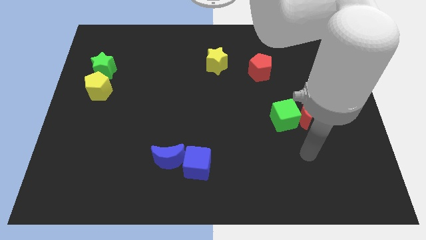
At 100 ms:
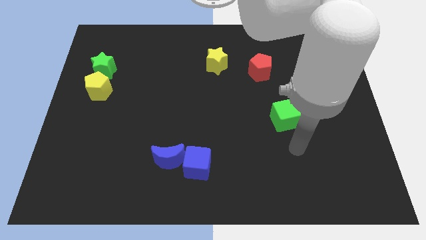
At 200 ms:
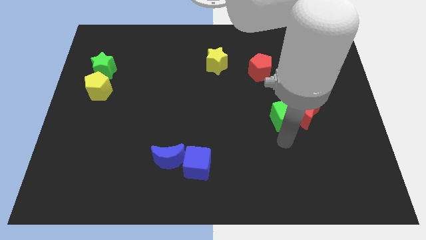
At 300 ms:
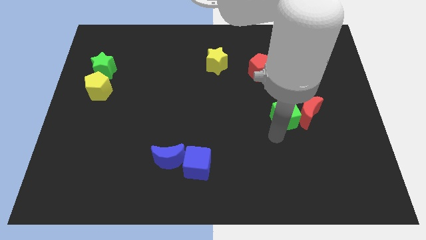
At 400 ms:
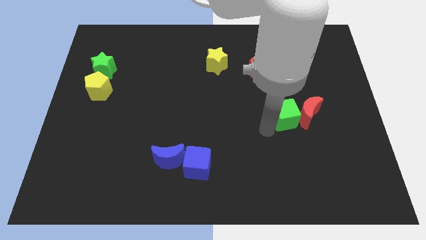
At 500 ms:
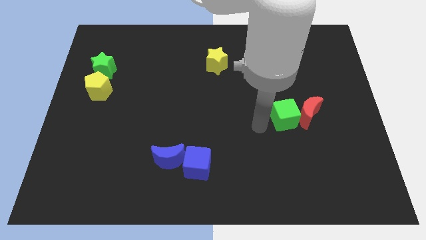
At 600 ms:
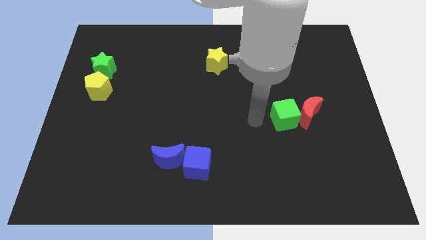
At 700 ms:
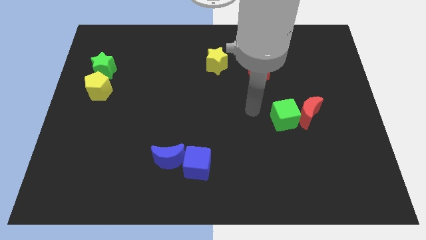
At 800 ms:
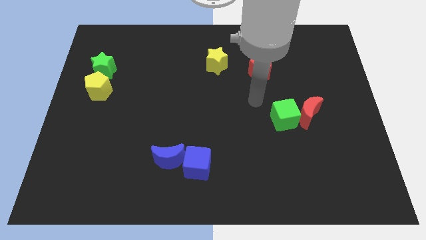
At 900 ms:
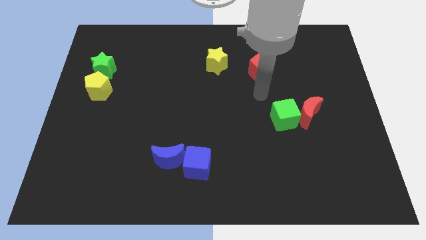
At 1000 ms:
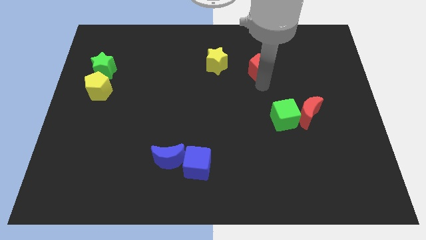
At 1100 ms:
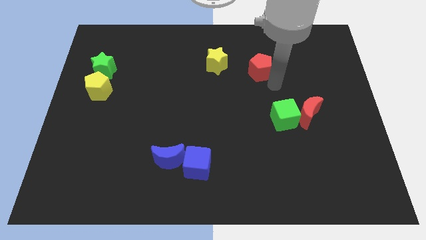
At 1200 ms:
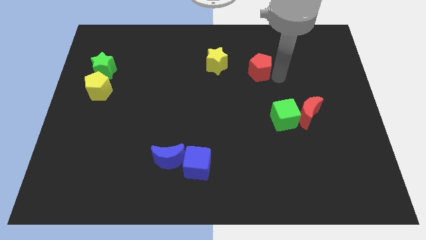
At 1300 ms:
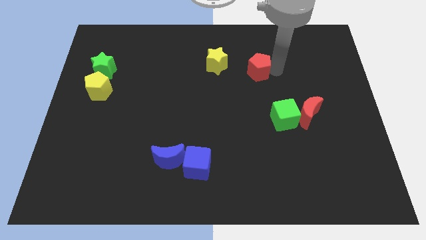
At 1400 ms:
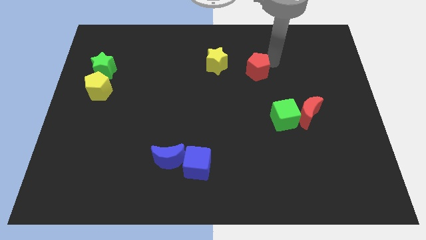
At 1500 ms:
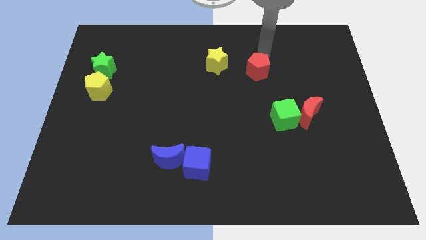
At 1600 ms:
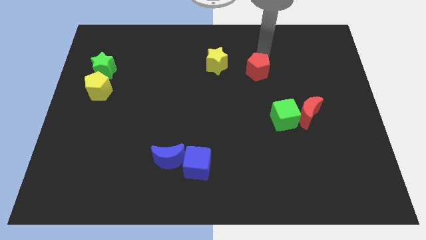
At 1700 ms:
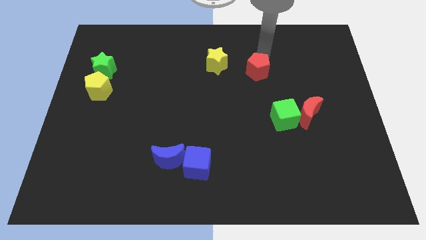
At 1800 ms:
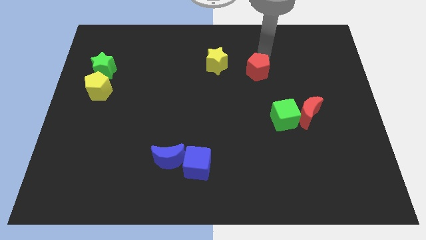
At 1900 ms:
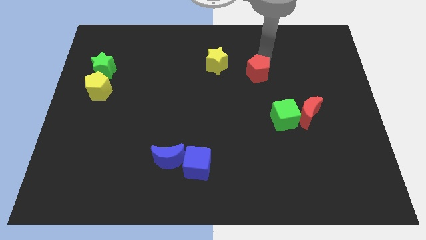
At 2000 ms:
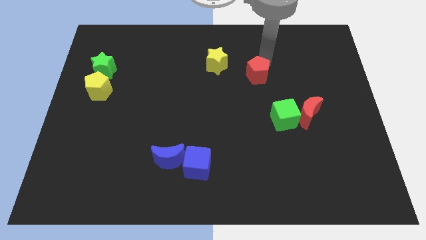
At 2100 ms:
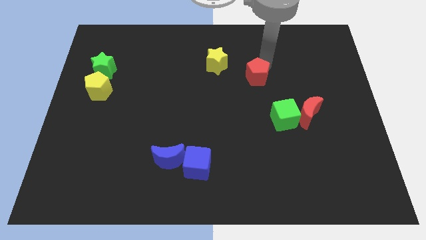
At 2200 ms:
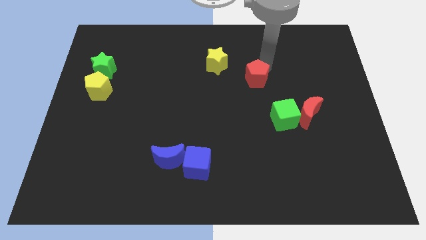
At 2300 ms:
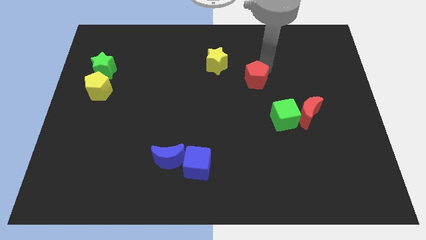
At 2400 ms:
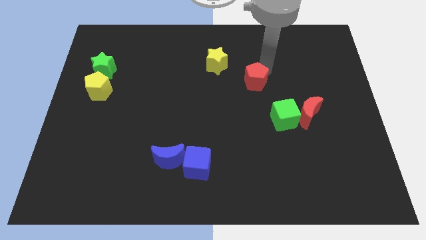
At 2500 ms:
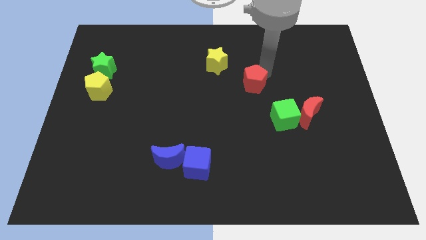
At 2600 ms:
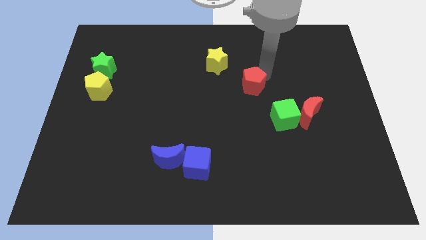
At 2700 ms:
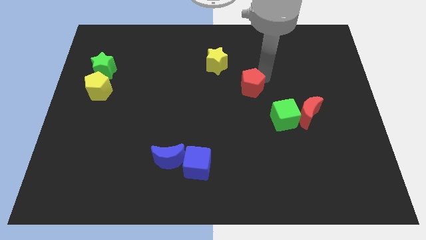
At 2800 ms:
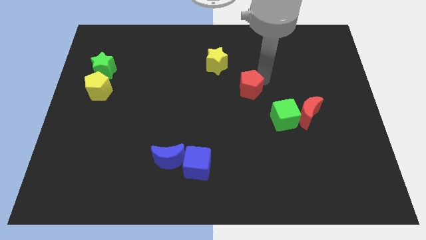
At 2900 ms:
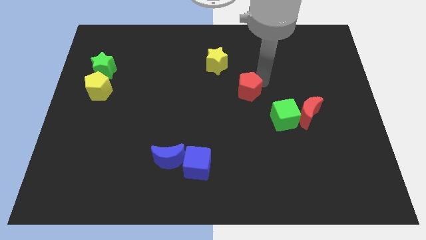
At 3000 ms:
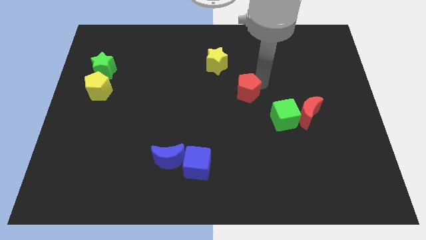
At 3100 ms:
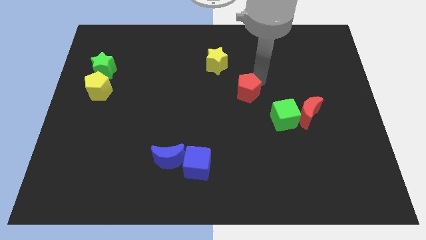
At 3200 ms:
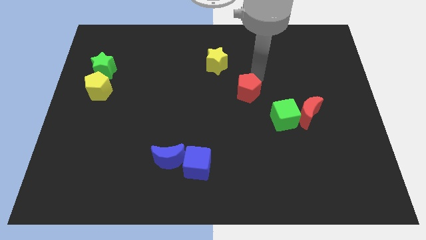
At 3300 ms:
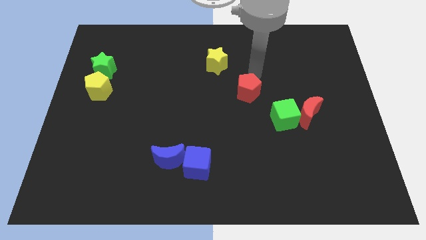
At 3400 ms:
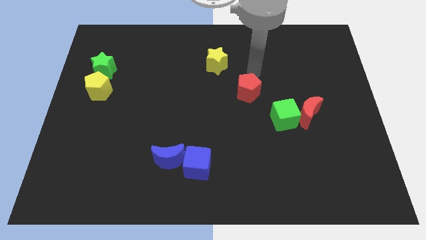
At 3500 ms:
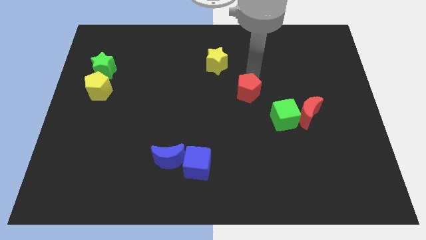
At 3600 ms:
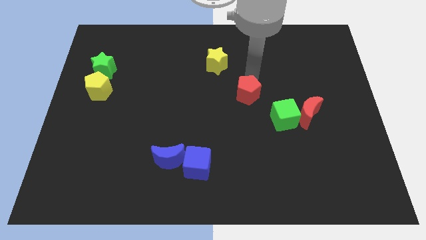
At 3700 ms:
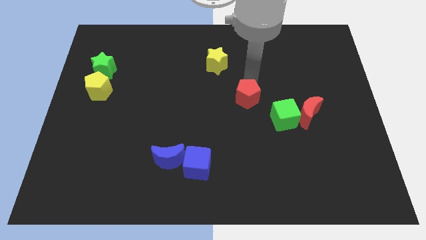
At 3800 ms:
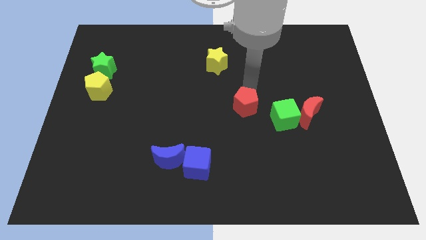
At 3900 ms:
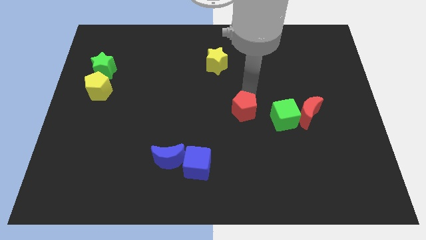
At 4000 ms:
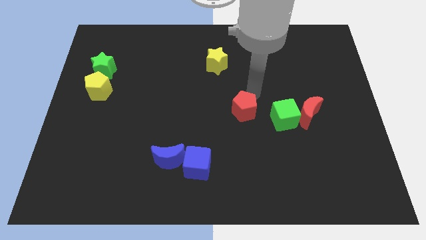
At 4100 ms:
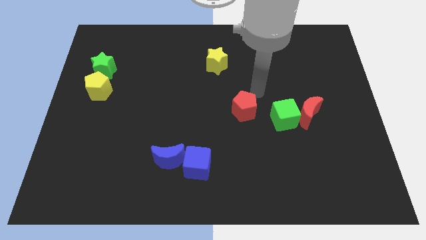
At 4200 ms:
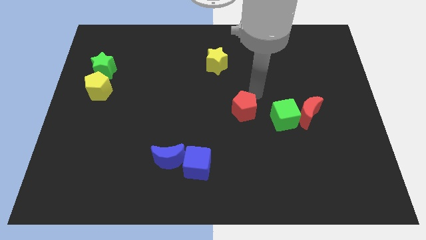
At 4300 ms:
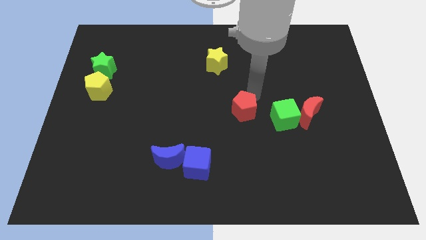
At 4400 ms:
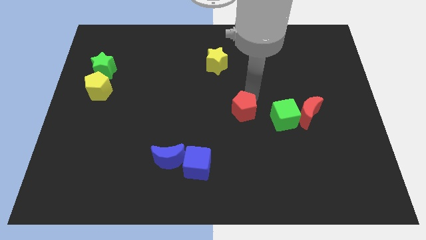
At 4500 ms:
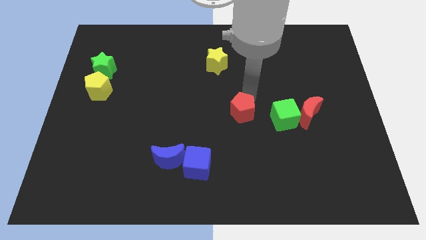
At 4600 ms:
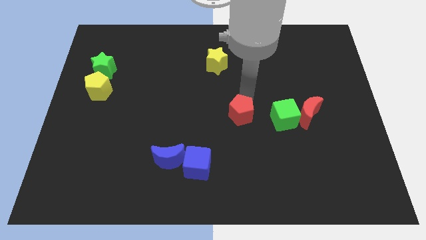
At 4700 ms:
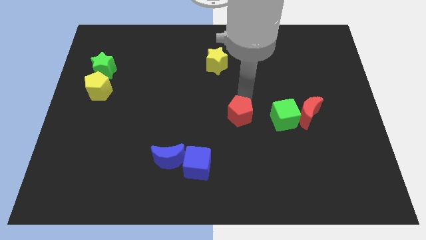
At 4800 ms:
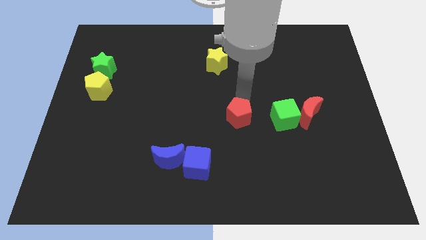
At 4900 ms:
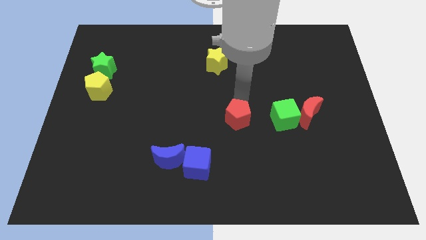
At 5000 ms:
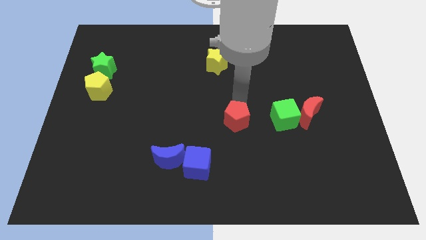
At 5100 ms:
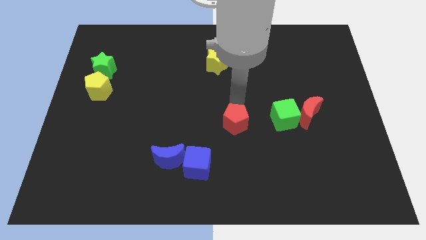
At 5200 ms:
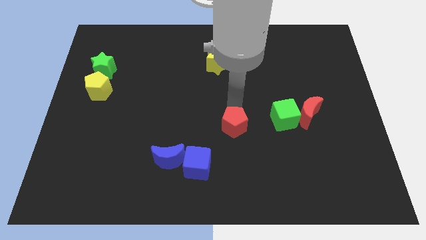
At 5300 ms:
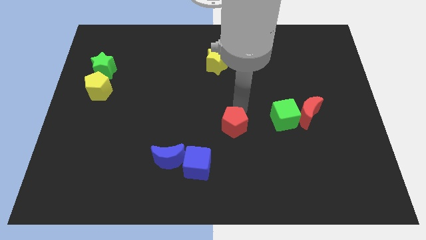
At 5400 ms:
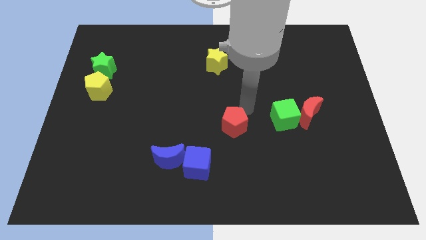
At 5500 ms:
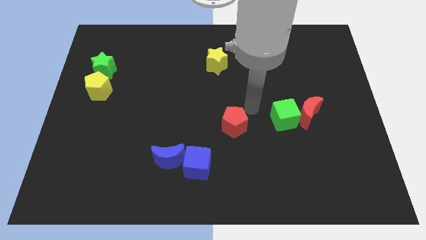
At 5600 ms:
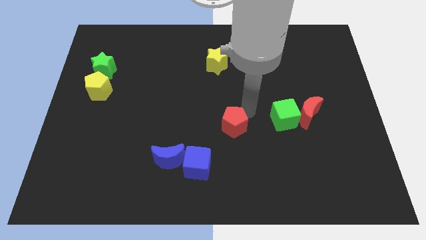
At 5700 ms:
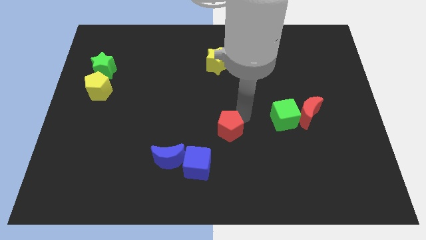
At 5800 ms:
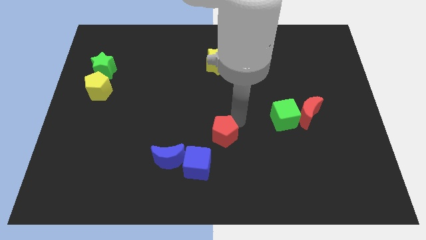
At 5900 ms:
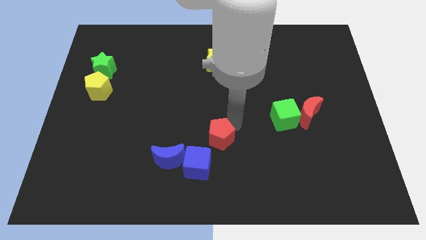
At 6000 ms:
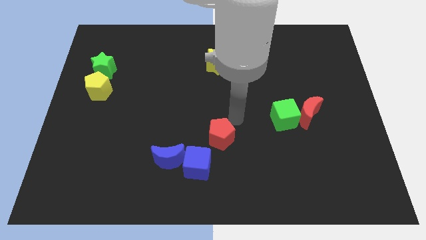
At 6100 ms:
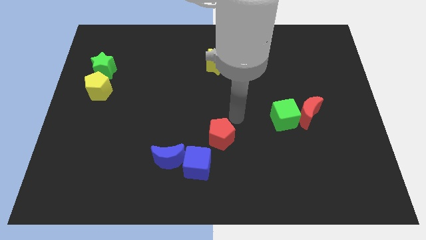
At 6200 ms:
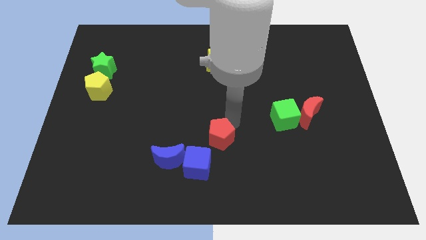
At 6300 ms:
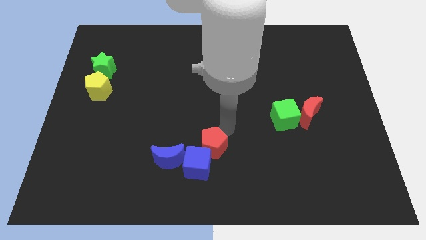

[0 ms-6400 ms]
slide the red pentagon close to the blue cube

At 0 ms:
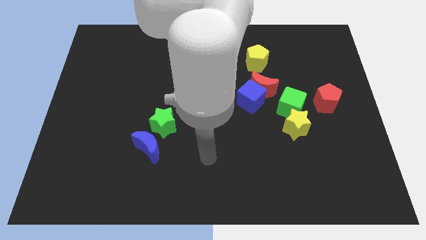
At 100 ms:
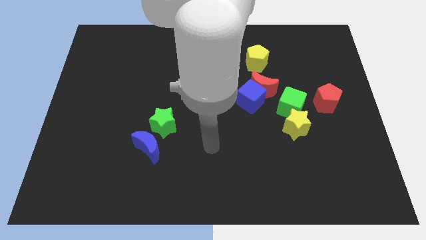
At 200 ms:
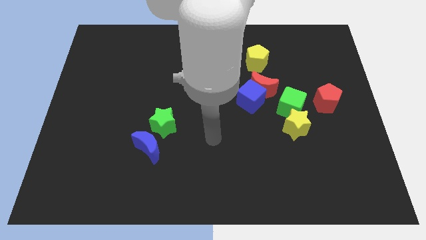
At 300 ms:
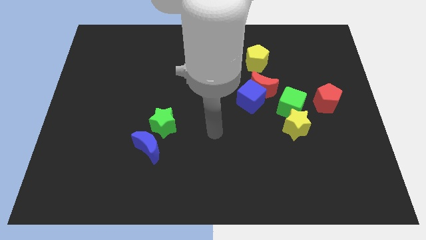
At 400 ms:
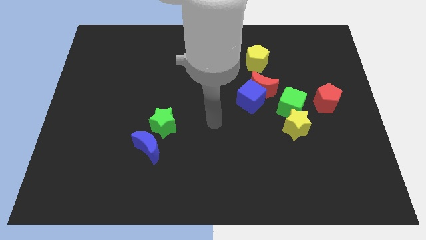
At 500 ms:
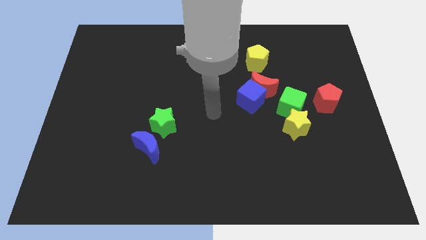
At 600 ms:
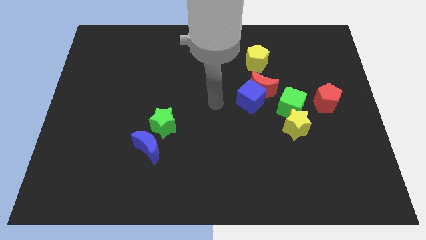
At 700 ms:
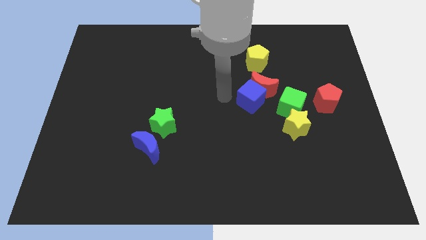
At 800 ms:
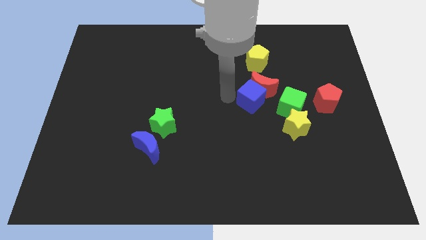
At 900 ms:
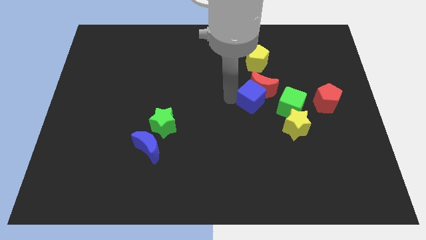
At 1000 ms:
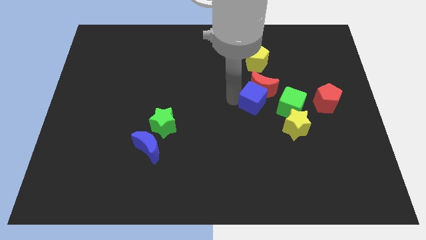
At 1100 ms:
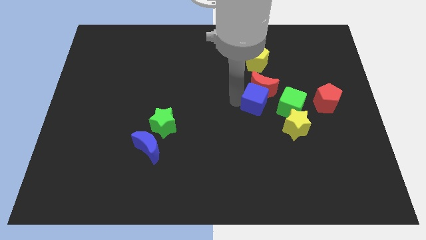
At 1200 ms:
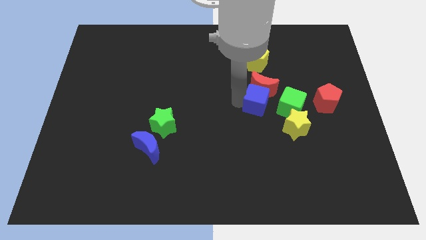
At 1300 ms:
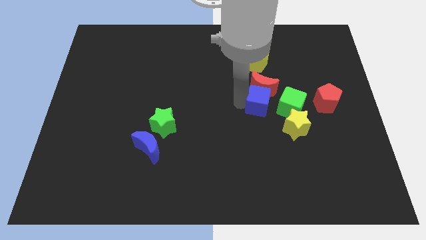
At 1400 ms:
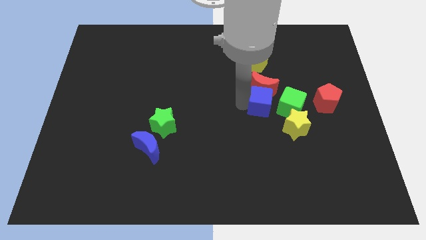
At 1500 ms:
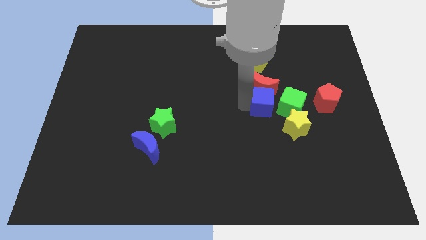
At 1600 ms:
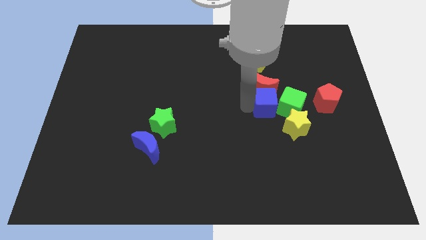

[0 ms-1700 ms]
move the blue cube towards the green cube
